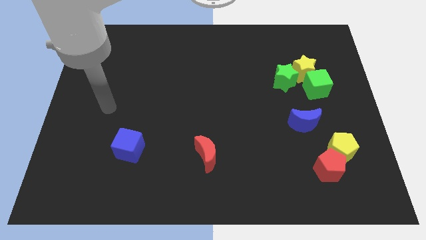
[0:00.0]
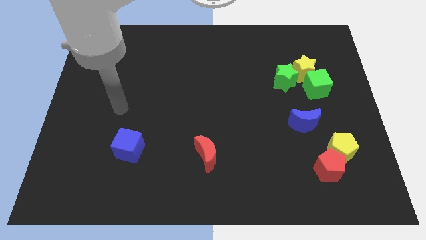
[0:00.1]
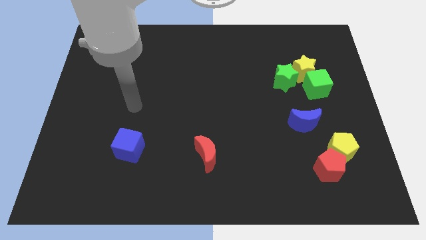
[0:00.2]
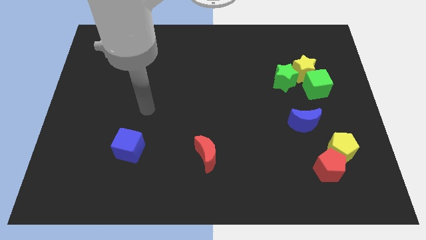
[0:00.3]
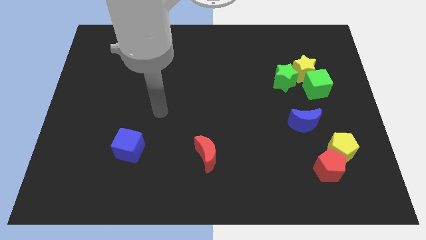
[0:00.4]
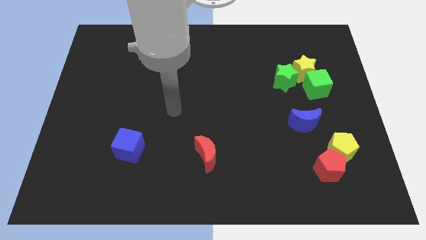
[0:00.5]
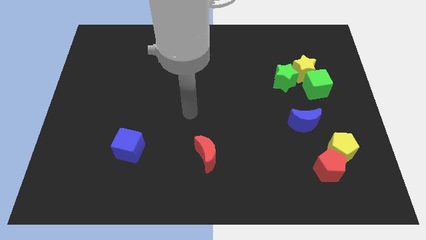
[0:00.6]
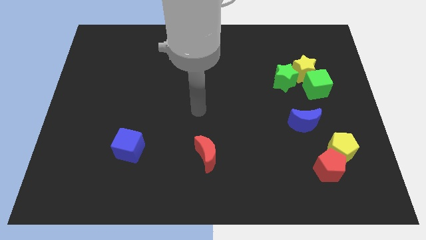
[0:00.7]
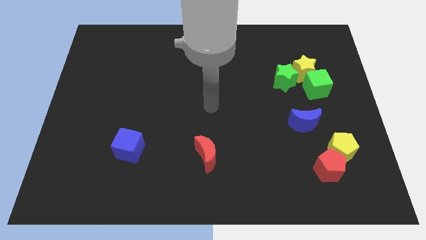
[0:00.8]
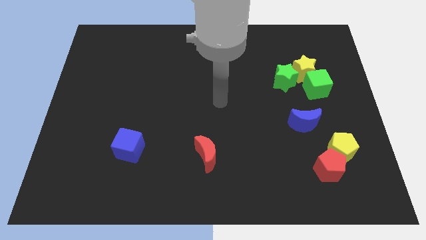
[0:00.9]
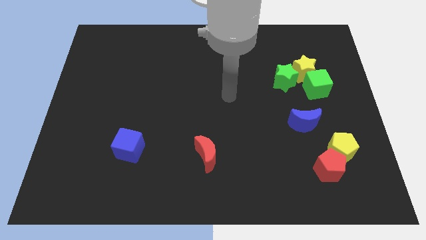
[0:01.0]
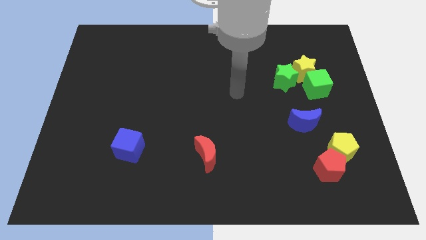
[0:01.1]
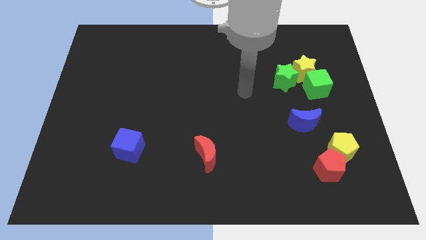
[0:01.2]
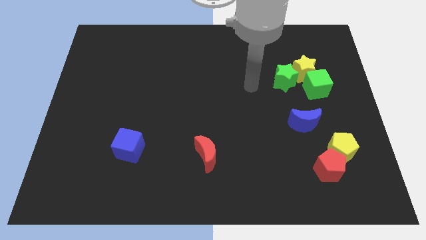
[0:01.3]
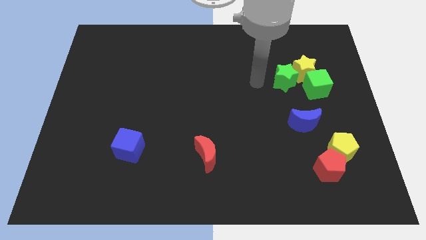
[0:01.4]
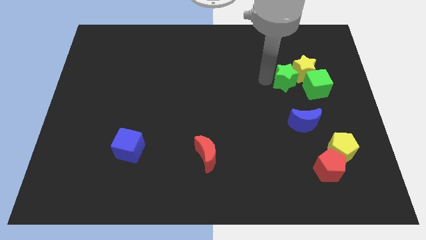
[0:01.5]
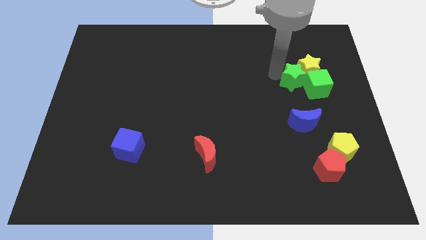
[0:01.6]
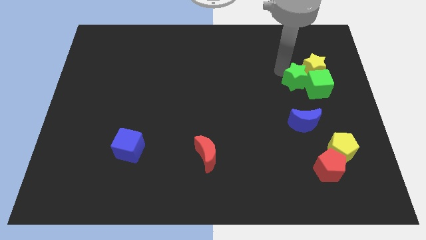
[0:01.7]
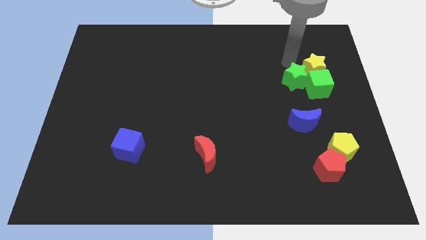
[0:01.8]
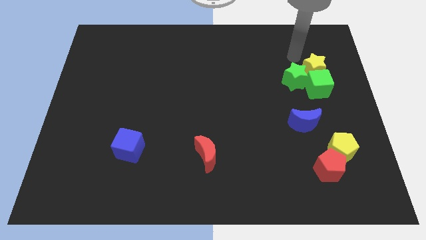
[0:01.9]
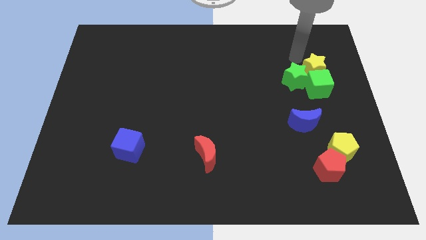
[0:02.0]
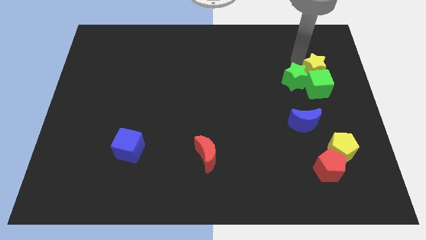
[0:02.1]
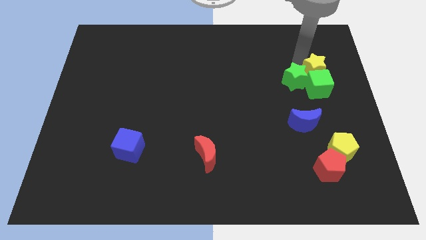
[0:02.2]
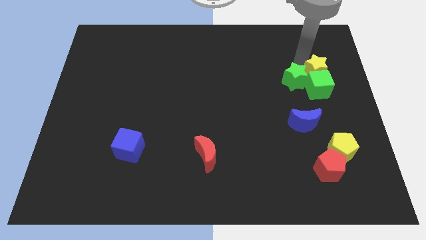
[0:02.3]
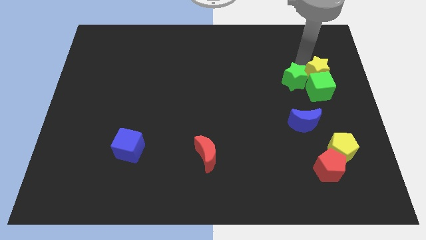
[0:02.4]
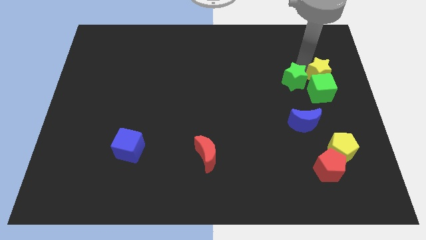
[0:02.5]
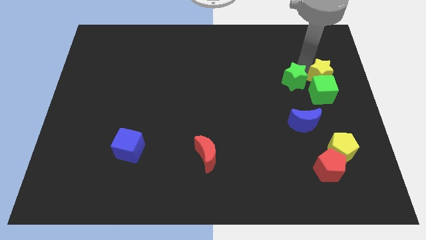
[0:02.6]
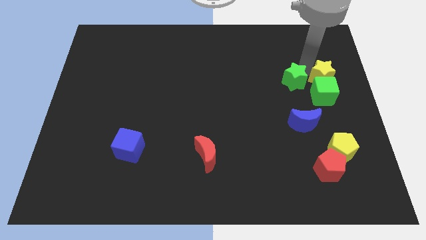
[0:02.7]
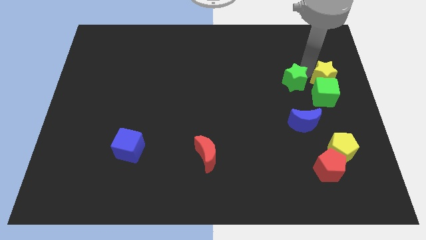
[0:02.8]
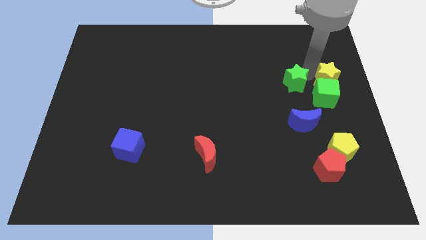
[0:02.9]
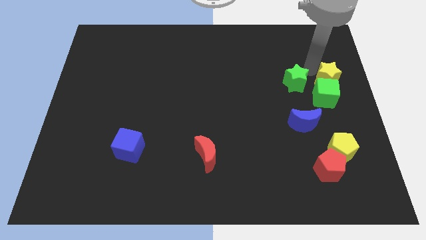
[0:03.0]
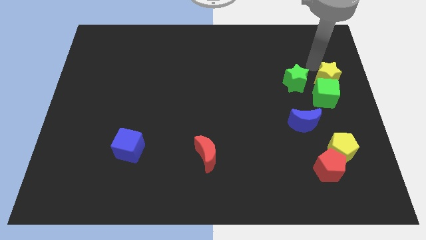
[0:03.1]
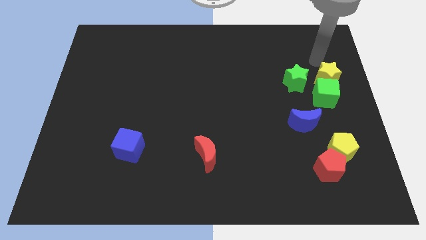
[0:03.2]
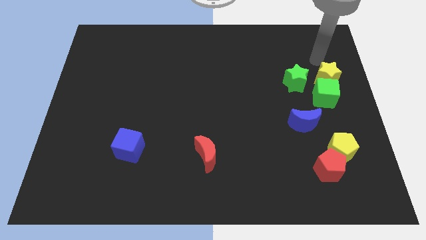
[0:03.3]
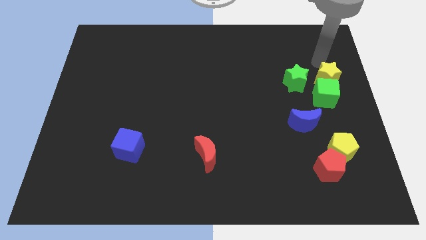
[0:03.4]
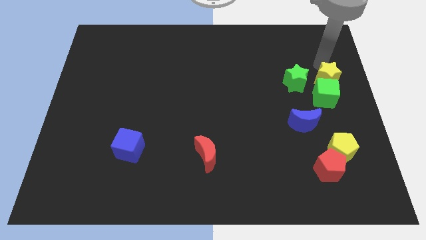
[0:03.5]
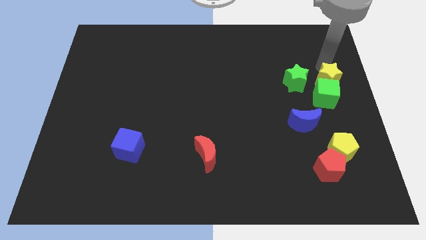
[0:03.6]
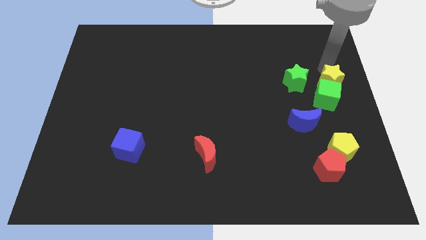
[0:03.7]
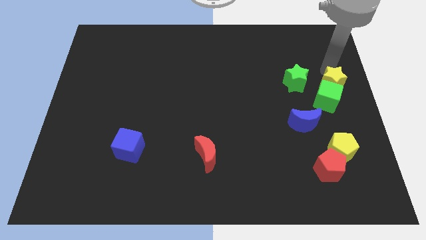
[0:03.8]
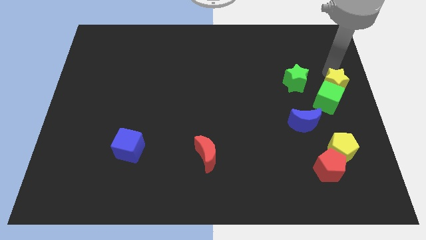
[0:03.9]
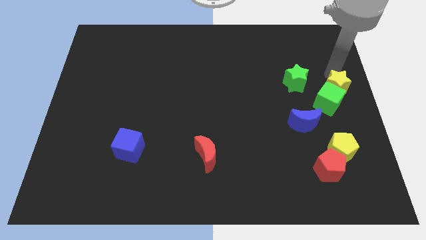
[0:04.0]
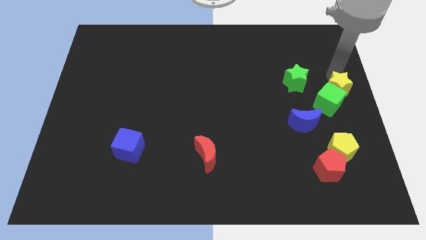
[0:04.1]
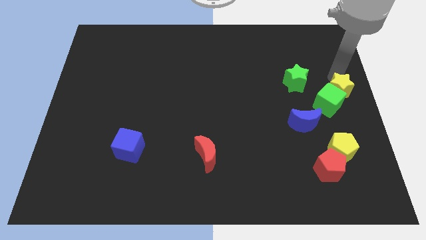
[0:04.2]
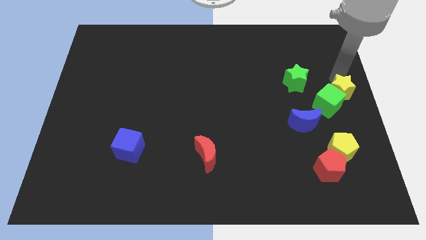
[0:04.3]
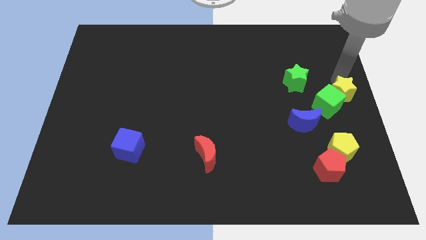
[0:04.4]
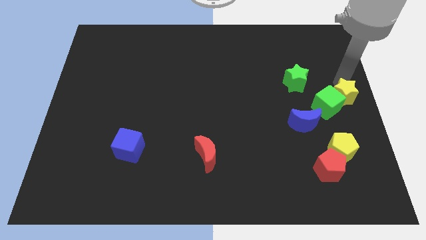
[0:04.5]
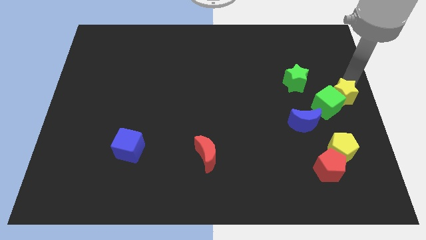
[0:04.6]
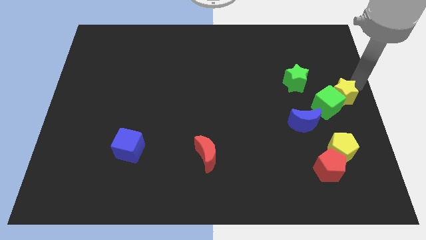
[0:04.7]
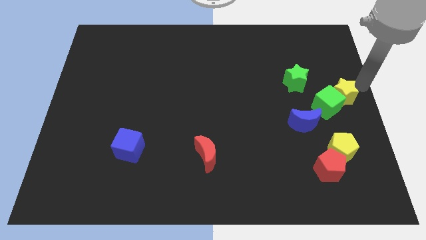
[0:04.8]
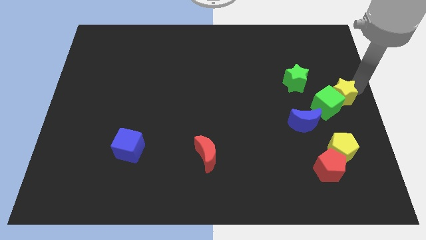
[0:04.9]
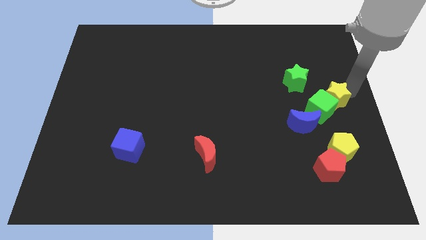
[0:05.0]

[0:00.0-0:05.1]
move the yellow star a little bit down

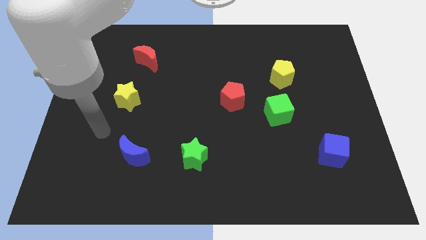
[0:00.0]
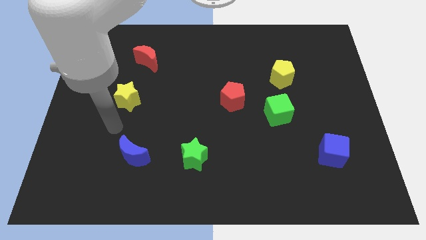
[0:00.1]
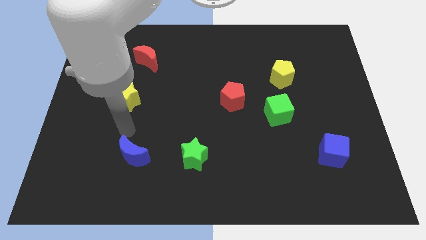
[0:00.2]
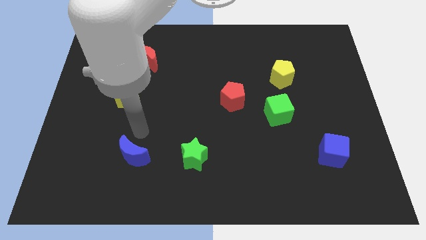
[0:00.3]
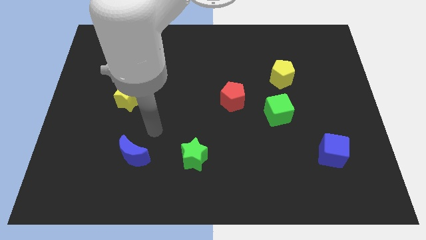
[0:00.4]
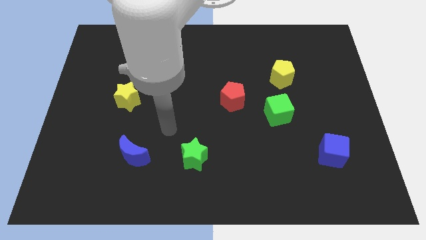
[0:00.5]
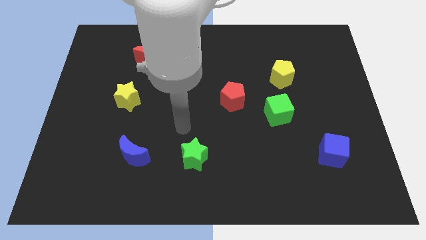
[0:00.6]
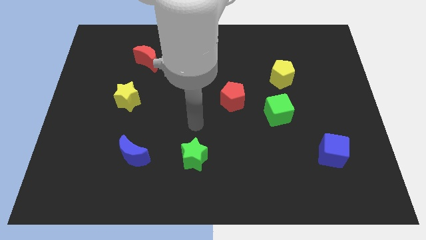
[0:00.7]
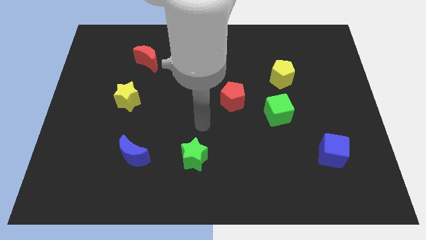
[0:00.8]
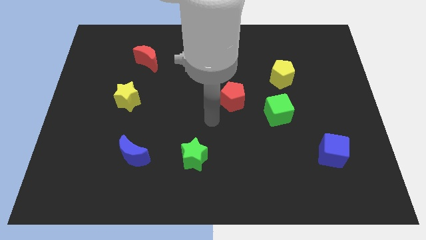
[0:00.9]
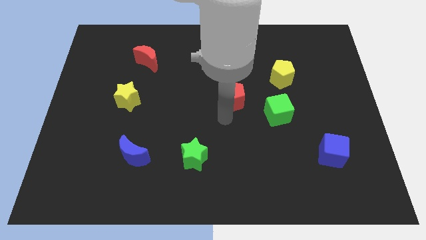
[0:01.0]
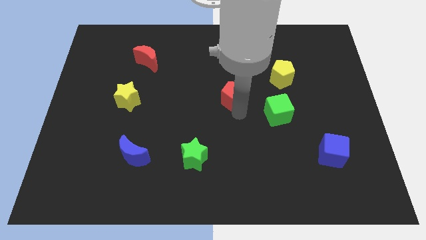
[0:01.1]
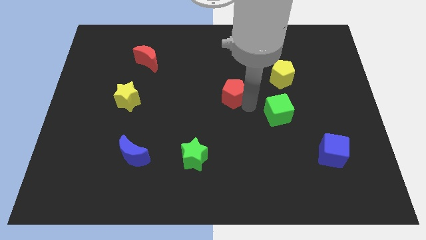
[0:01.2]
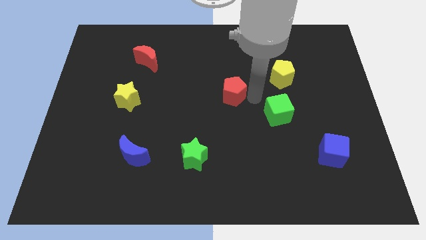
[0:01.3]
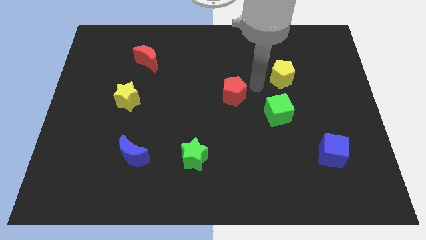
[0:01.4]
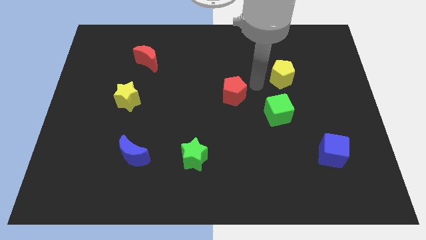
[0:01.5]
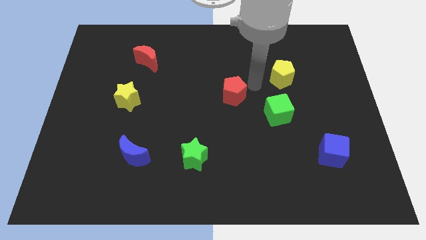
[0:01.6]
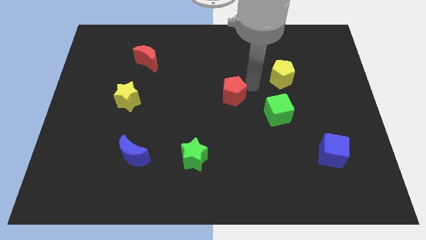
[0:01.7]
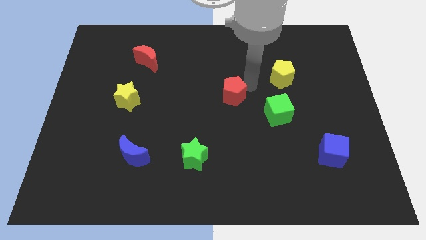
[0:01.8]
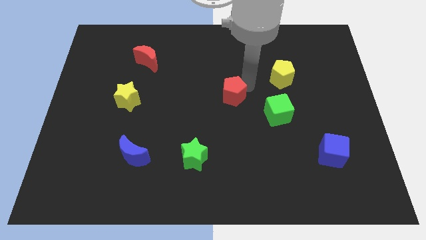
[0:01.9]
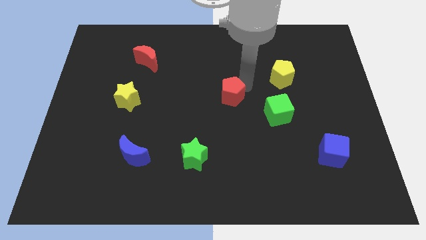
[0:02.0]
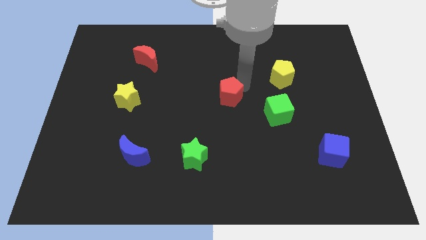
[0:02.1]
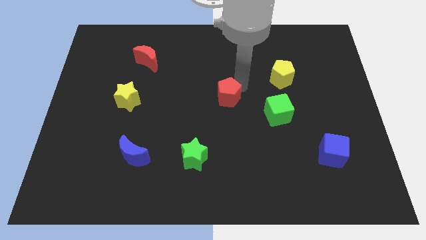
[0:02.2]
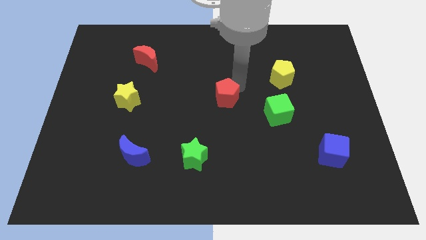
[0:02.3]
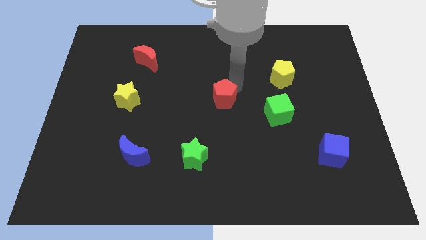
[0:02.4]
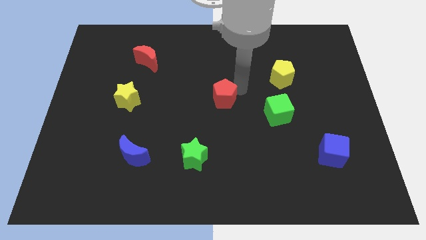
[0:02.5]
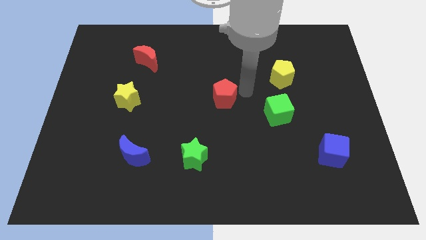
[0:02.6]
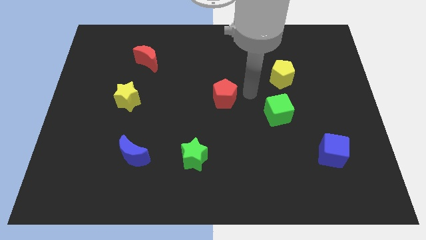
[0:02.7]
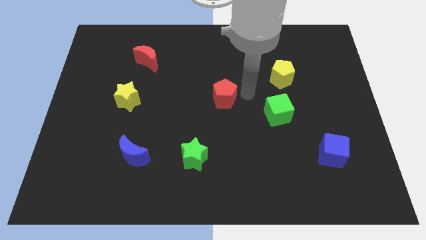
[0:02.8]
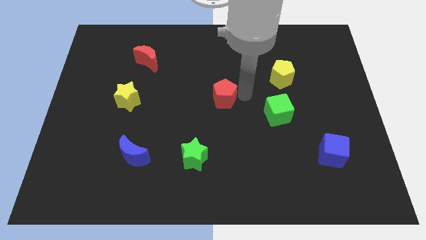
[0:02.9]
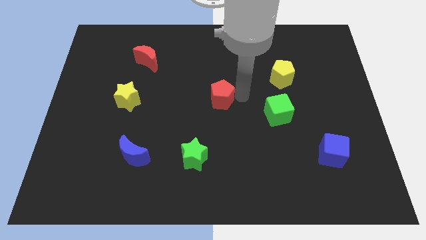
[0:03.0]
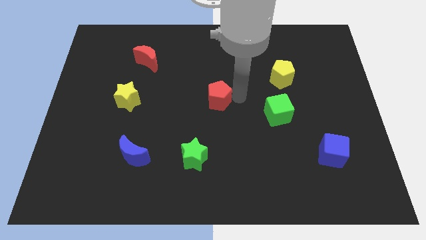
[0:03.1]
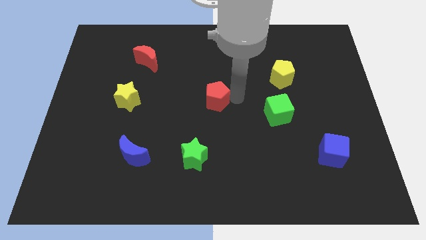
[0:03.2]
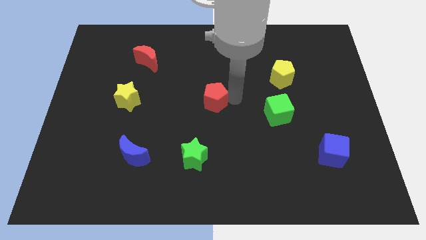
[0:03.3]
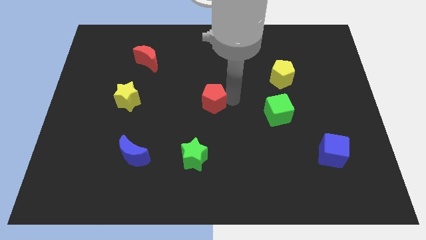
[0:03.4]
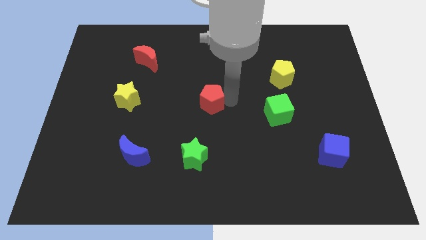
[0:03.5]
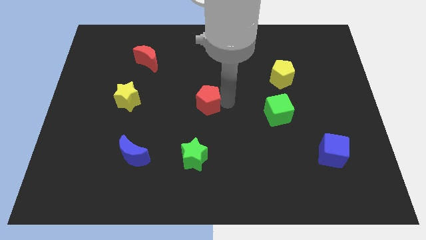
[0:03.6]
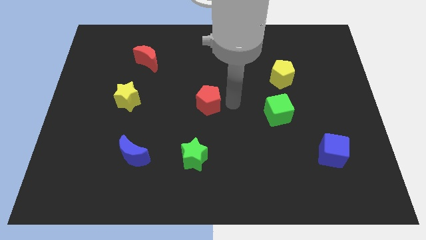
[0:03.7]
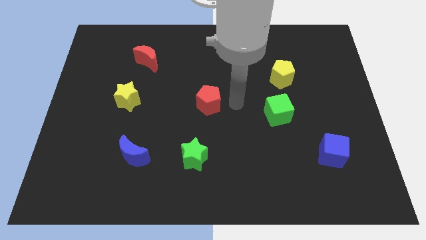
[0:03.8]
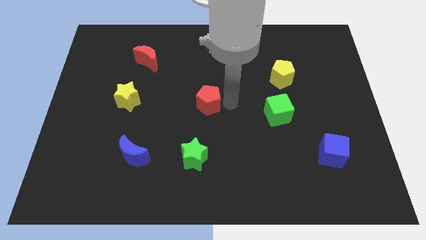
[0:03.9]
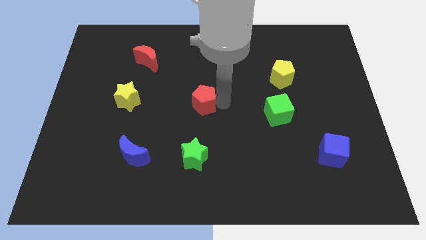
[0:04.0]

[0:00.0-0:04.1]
slide the red pentagon slightly left
